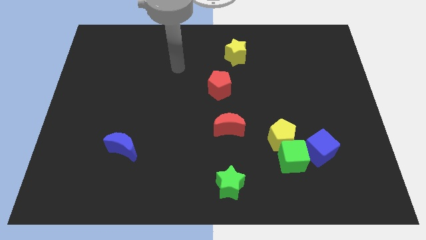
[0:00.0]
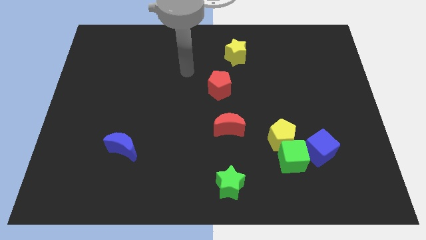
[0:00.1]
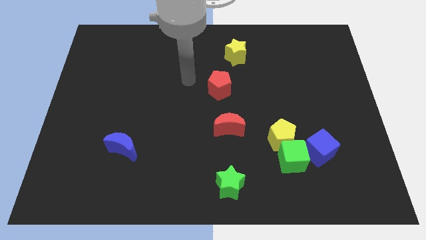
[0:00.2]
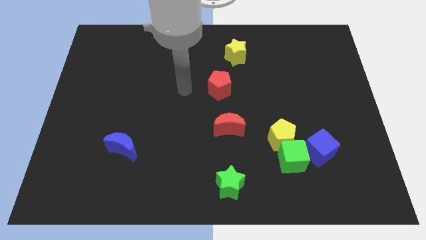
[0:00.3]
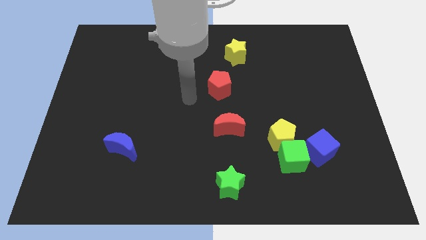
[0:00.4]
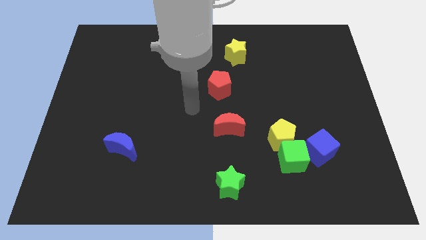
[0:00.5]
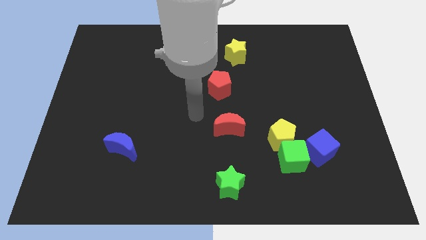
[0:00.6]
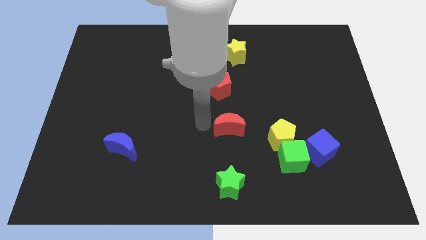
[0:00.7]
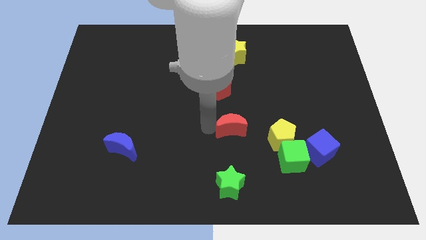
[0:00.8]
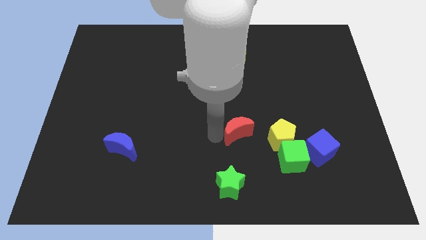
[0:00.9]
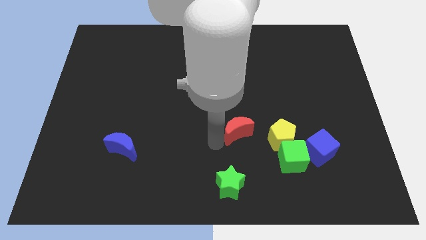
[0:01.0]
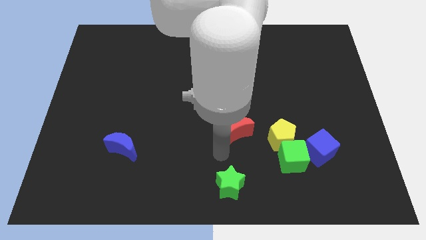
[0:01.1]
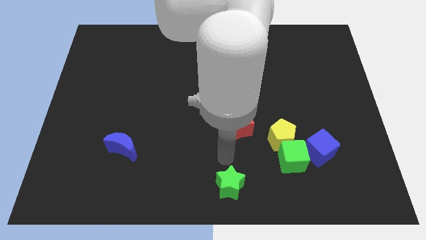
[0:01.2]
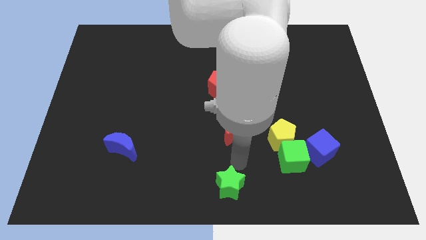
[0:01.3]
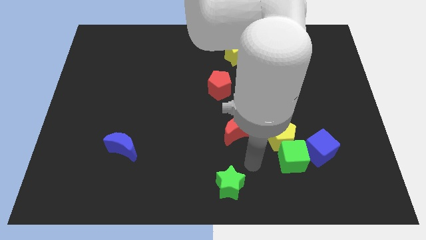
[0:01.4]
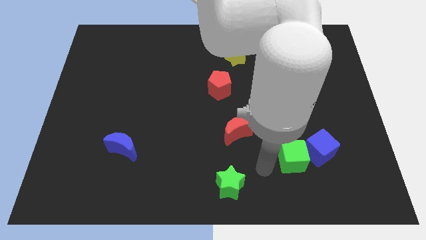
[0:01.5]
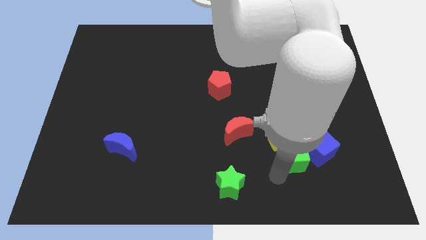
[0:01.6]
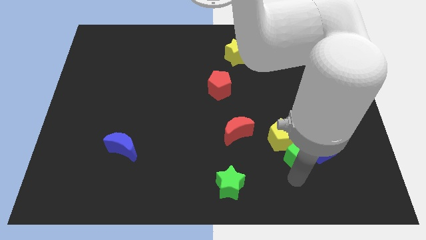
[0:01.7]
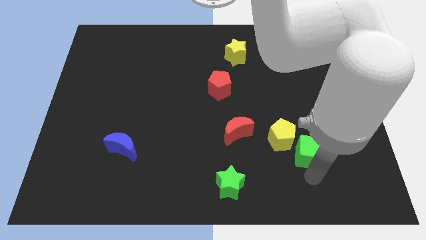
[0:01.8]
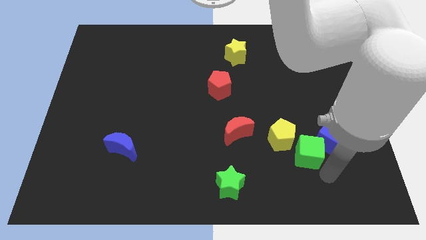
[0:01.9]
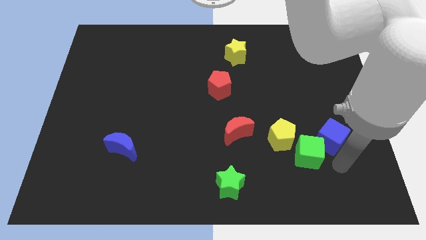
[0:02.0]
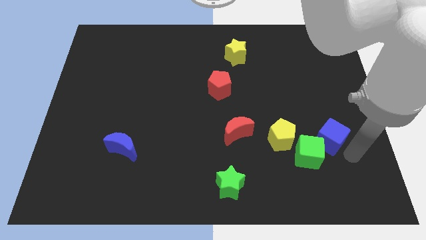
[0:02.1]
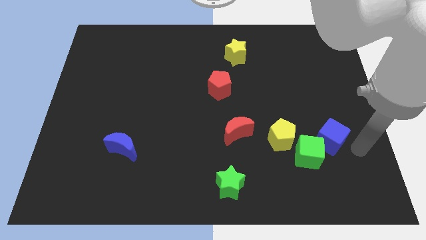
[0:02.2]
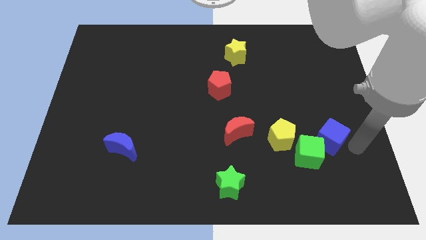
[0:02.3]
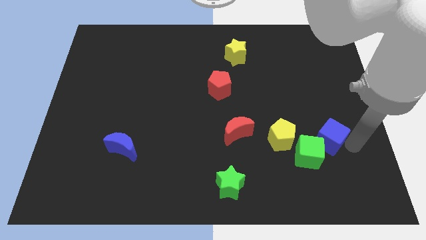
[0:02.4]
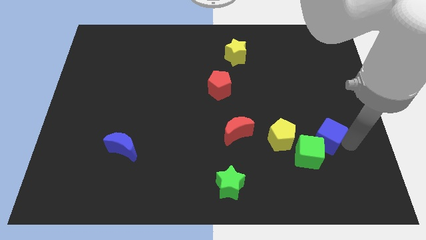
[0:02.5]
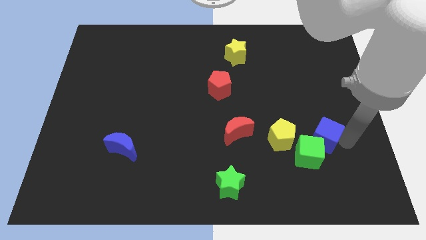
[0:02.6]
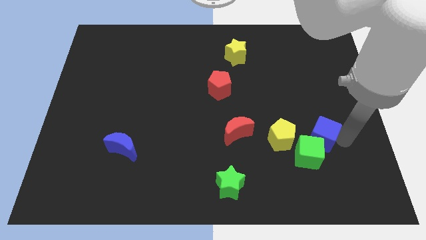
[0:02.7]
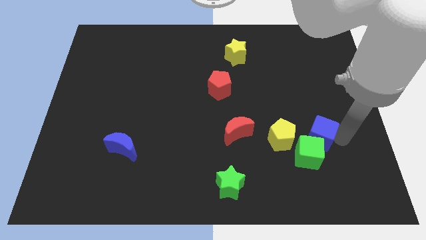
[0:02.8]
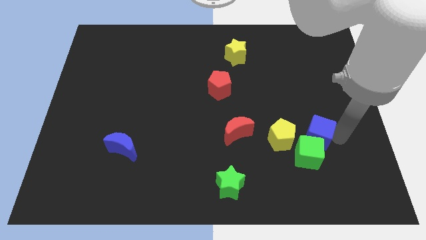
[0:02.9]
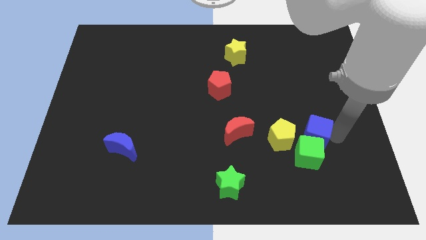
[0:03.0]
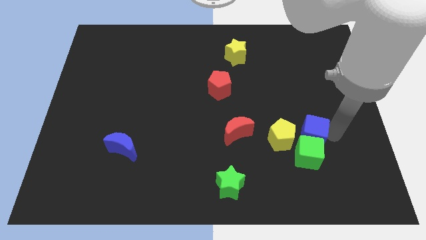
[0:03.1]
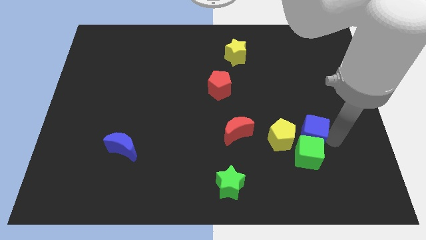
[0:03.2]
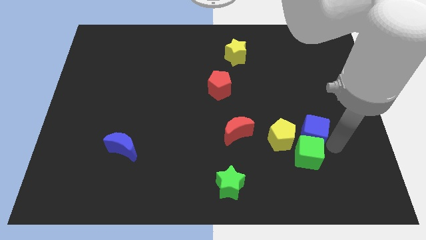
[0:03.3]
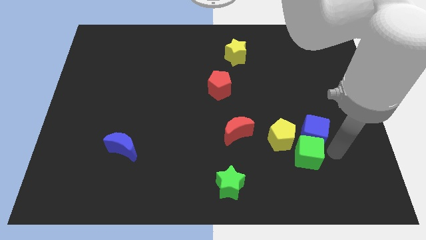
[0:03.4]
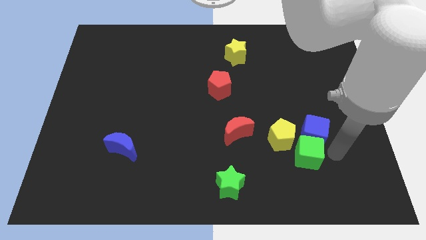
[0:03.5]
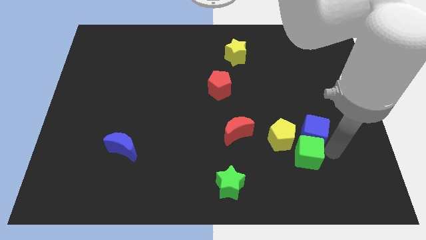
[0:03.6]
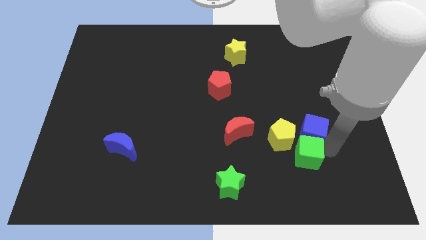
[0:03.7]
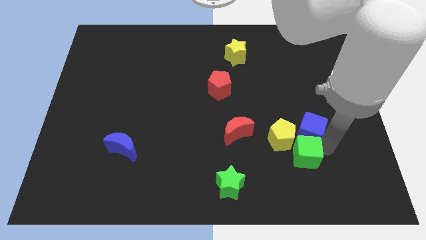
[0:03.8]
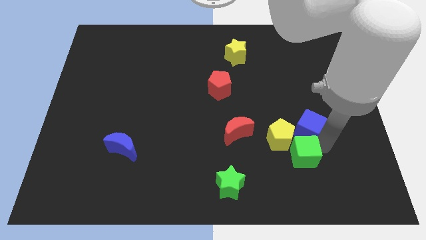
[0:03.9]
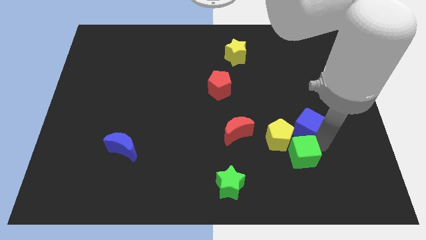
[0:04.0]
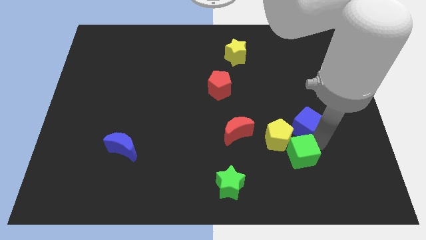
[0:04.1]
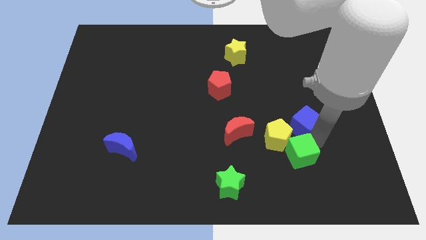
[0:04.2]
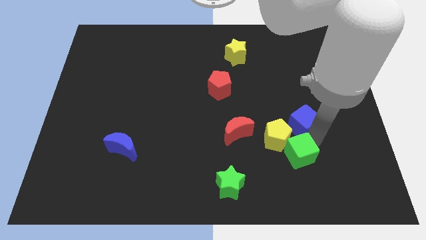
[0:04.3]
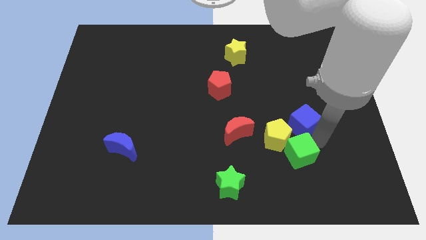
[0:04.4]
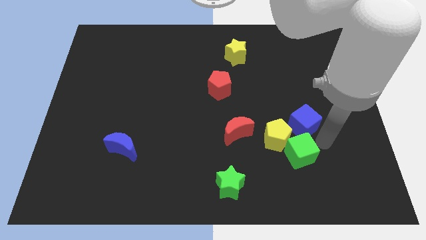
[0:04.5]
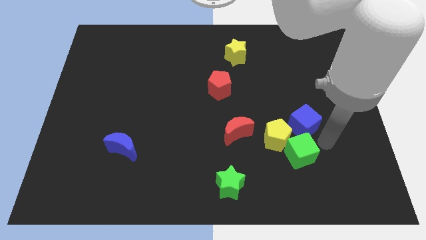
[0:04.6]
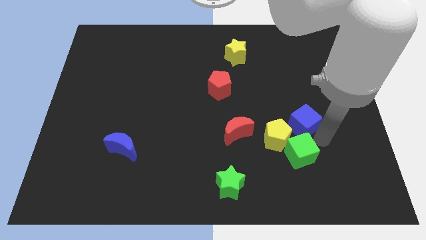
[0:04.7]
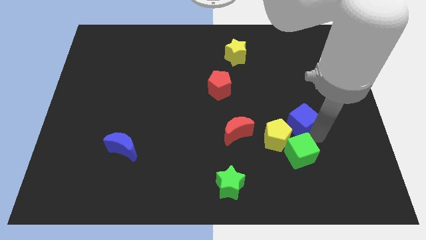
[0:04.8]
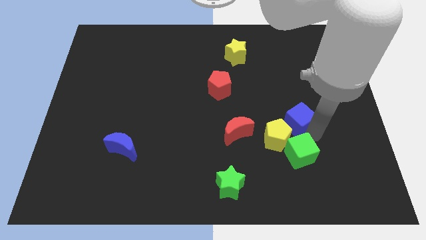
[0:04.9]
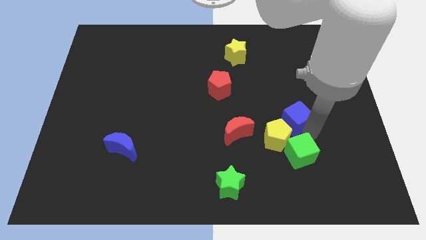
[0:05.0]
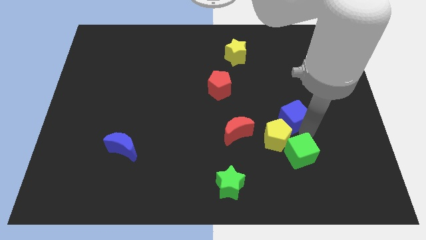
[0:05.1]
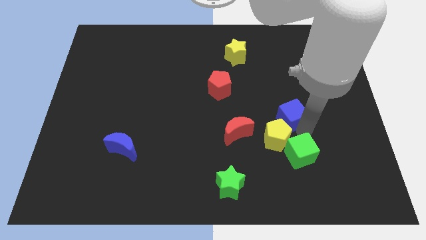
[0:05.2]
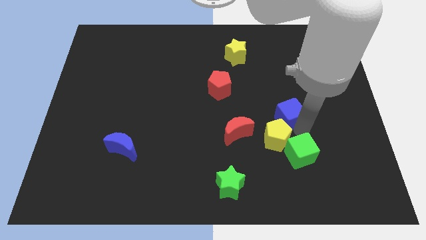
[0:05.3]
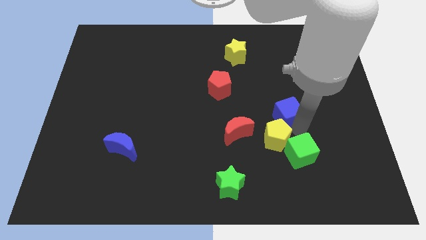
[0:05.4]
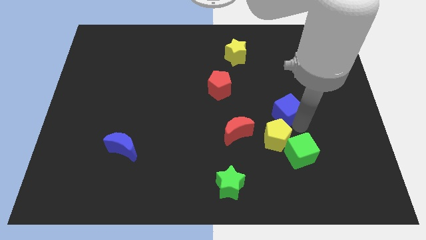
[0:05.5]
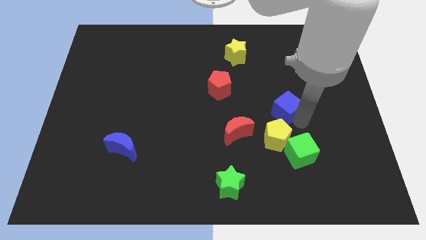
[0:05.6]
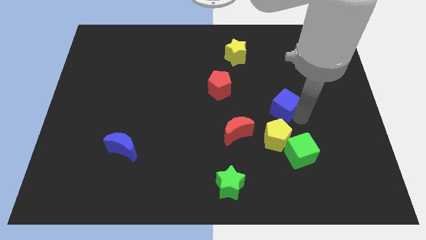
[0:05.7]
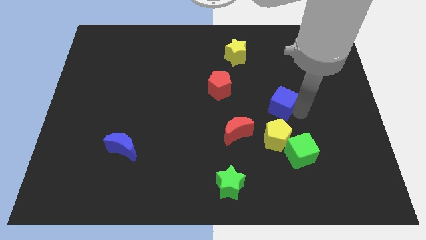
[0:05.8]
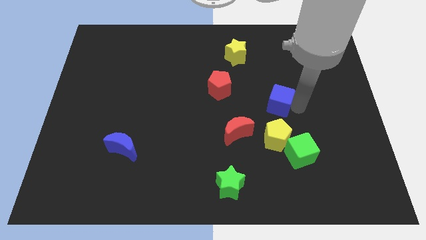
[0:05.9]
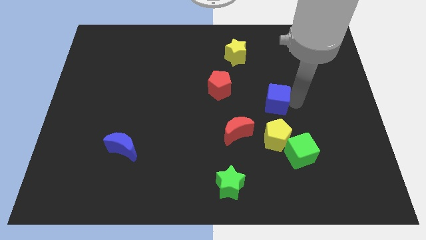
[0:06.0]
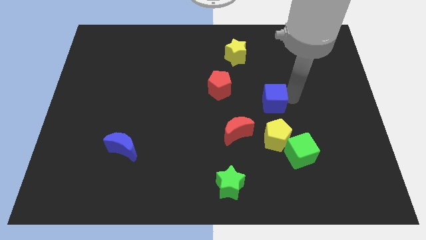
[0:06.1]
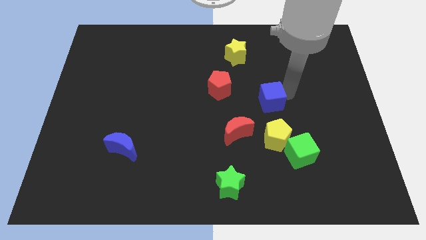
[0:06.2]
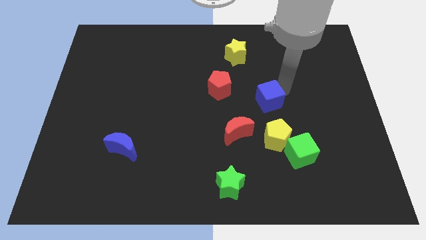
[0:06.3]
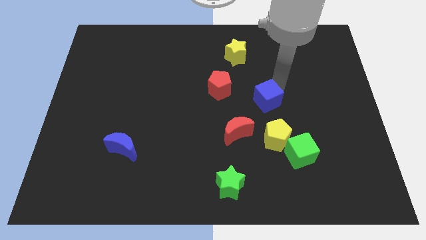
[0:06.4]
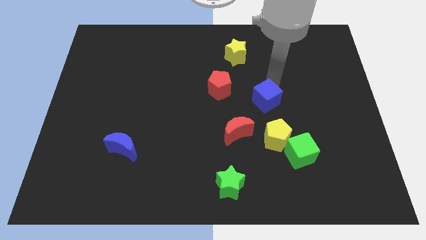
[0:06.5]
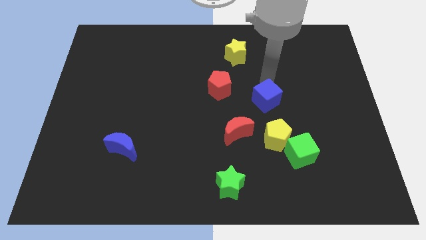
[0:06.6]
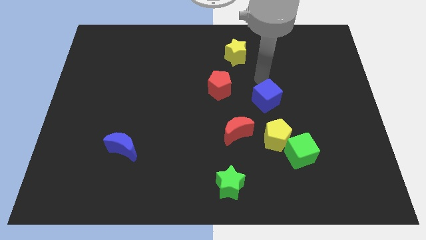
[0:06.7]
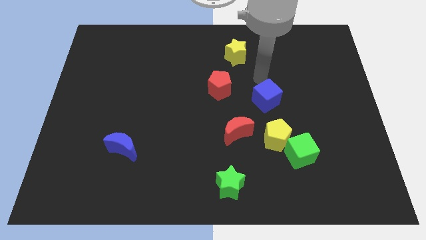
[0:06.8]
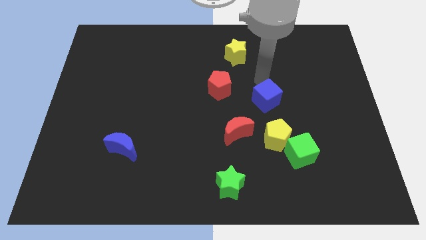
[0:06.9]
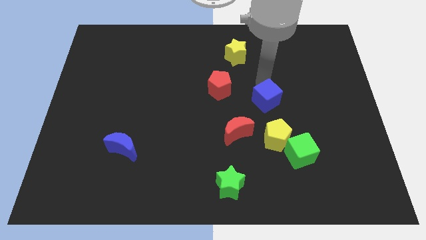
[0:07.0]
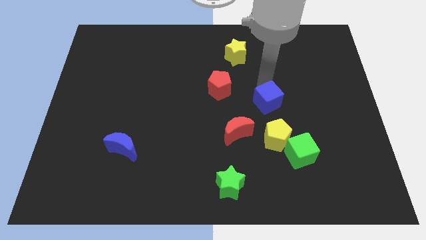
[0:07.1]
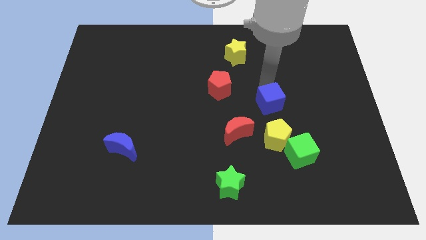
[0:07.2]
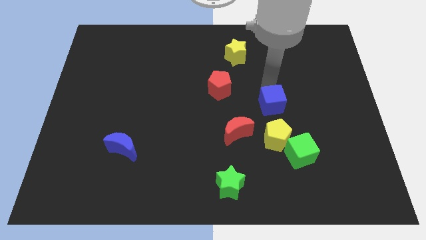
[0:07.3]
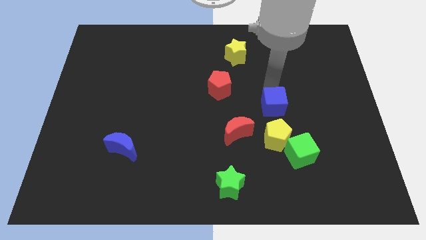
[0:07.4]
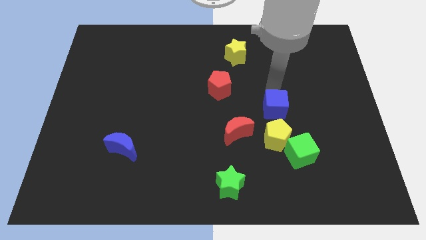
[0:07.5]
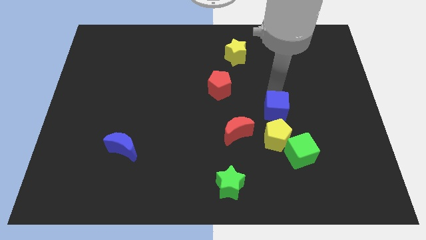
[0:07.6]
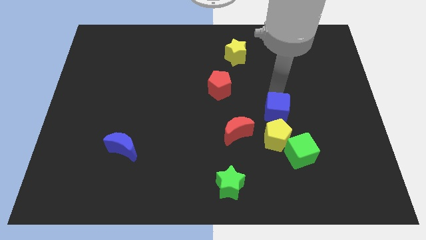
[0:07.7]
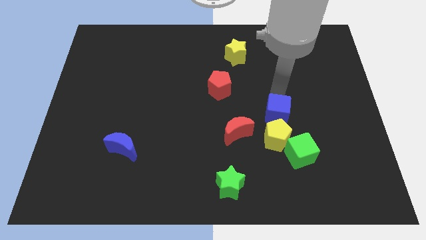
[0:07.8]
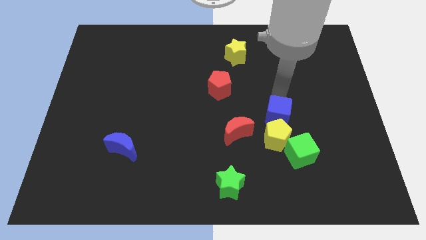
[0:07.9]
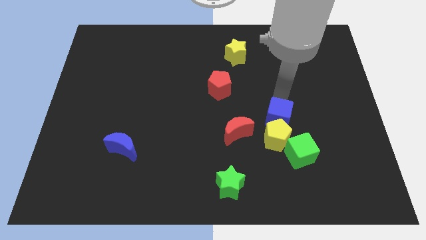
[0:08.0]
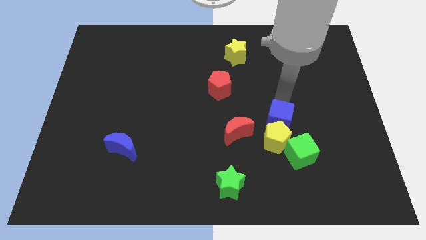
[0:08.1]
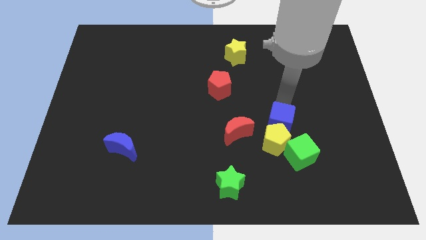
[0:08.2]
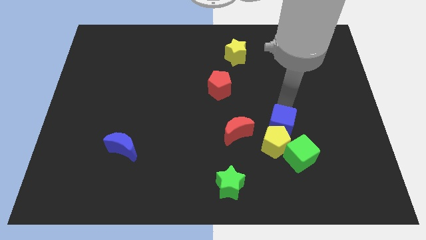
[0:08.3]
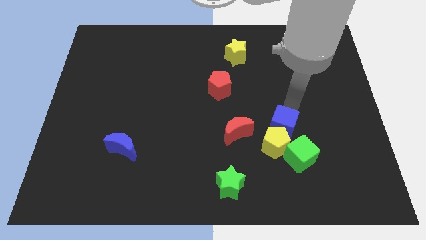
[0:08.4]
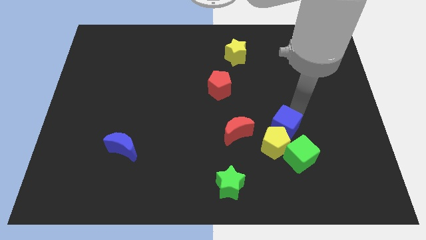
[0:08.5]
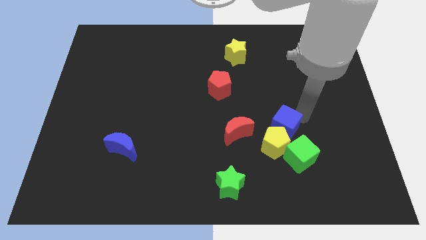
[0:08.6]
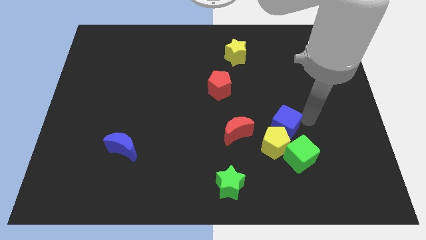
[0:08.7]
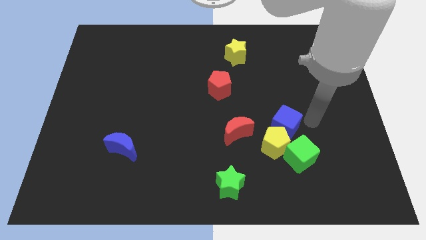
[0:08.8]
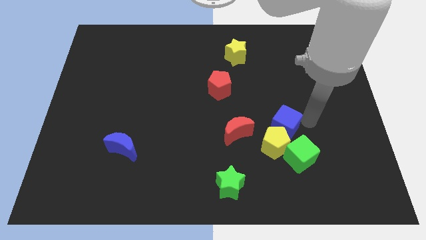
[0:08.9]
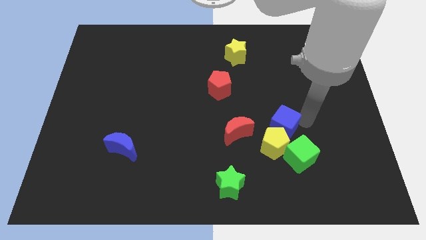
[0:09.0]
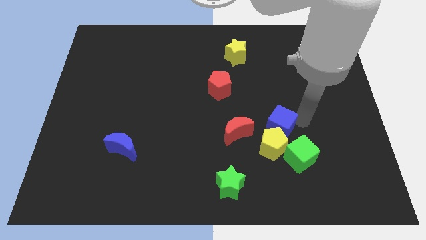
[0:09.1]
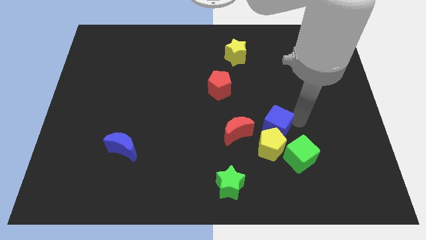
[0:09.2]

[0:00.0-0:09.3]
slide the blue cube a little left
